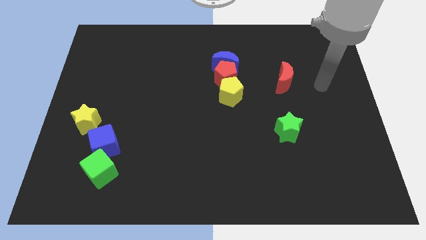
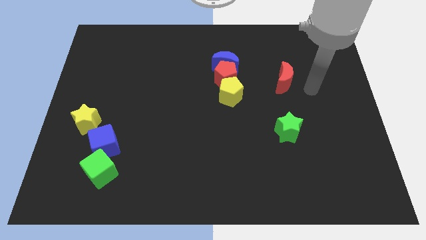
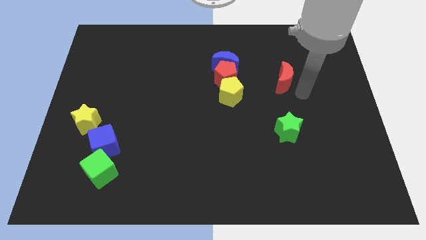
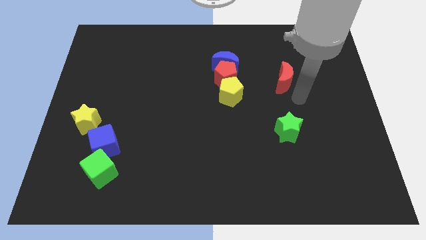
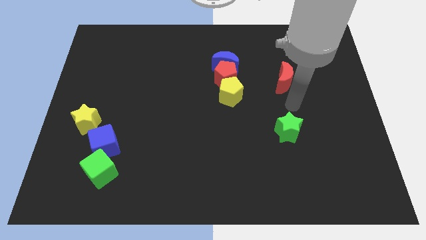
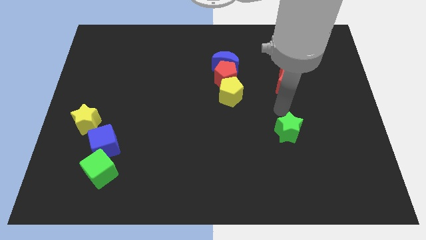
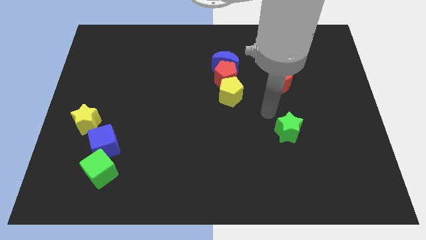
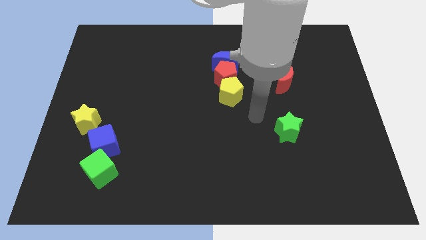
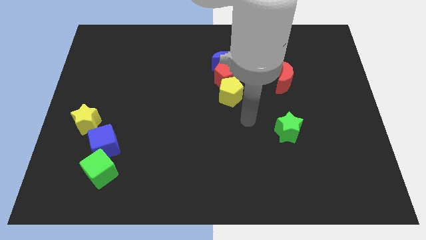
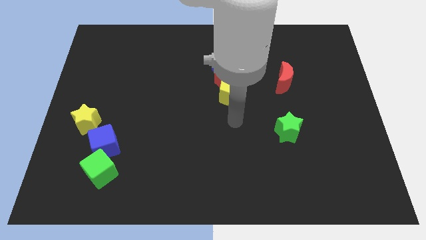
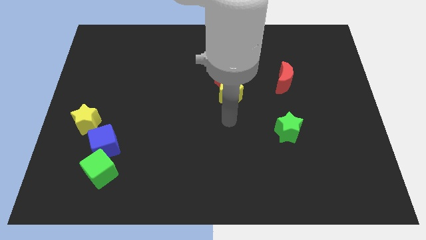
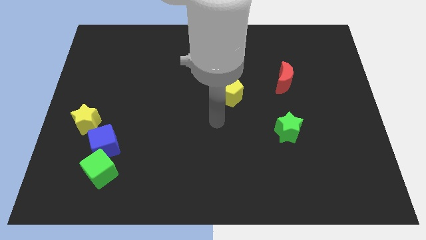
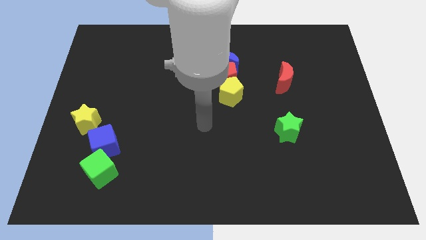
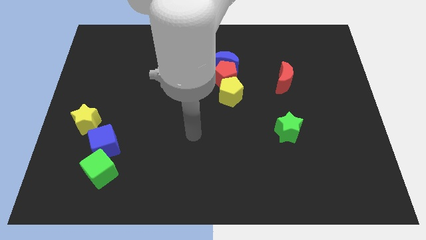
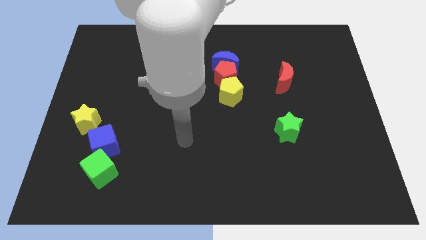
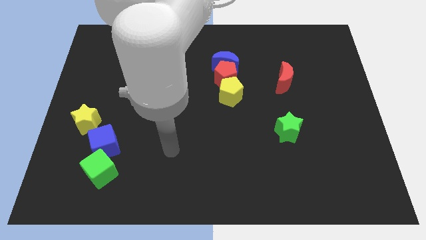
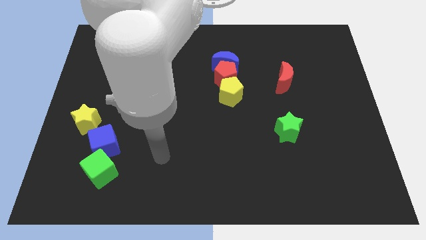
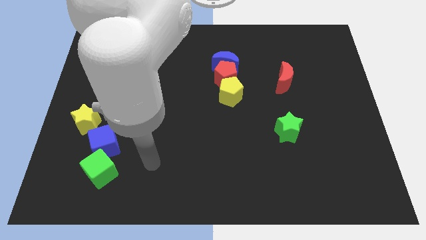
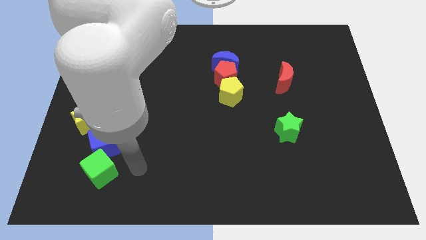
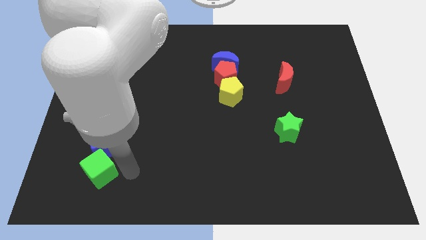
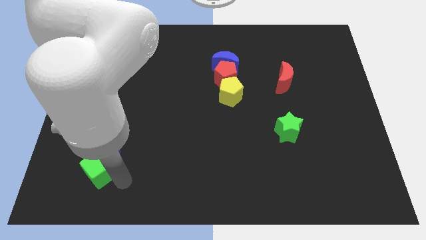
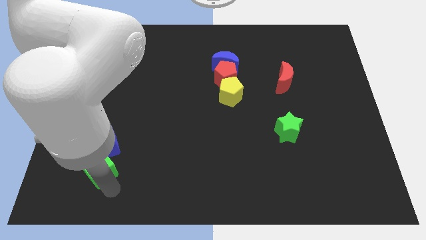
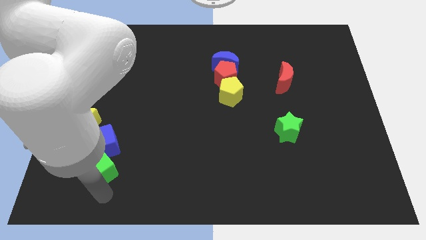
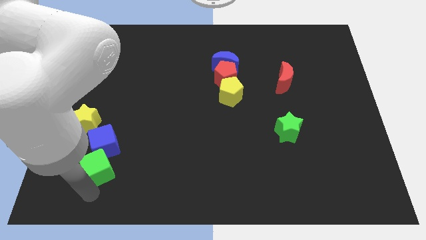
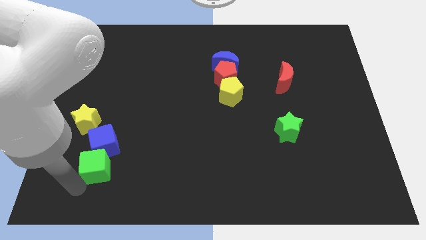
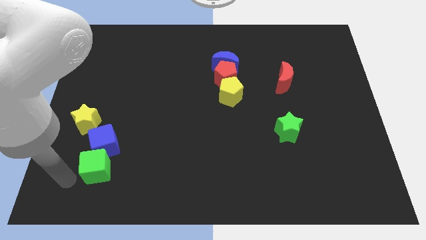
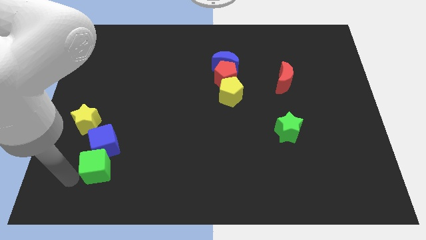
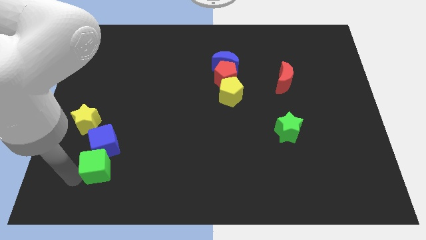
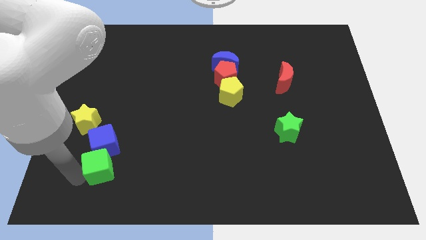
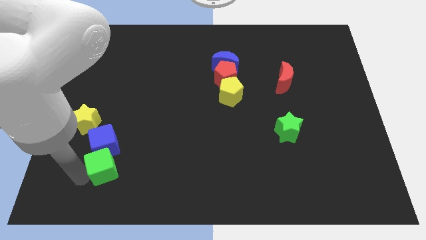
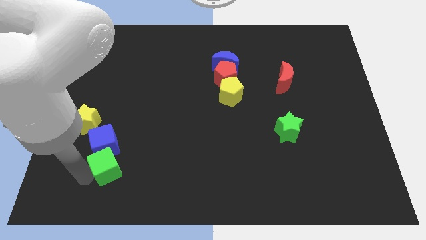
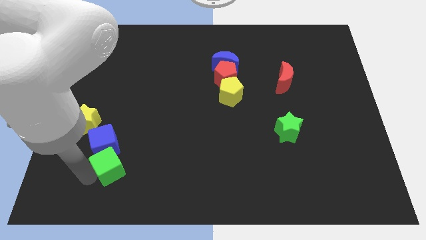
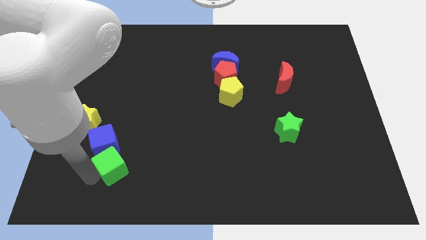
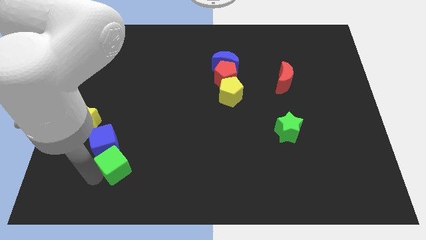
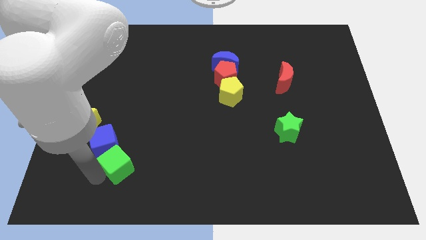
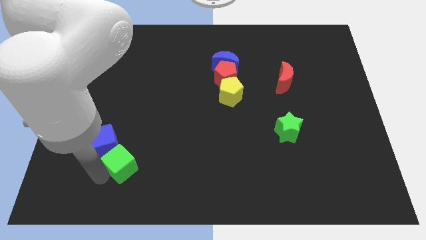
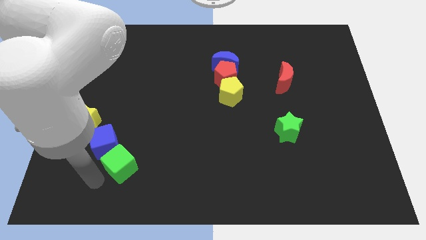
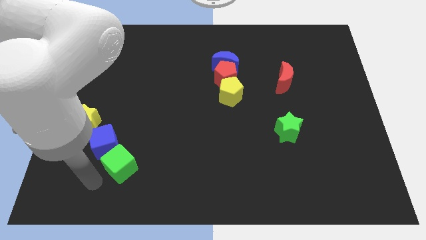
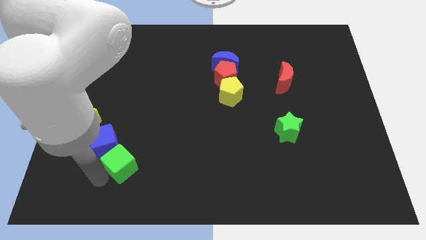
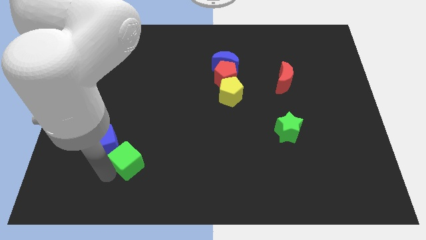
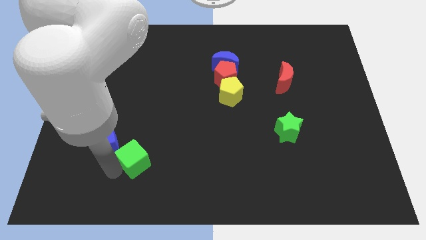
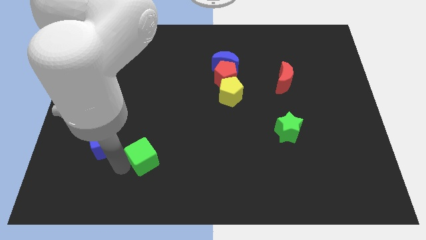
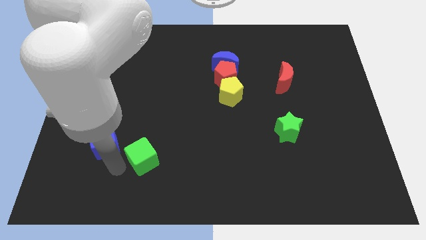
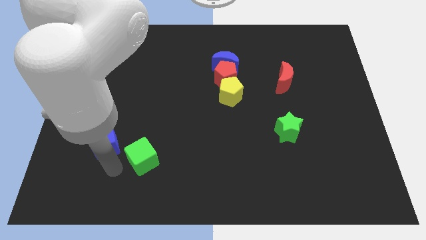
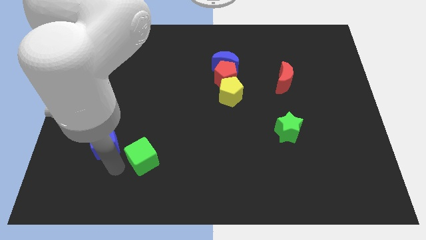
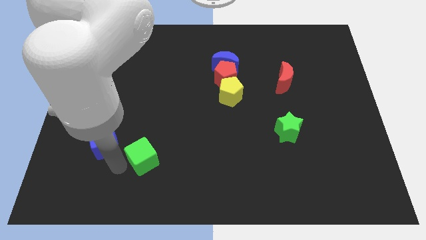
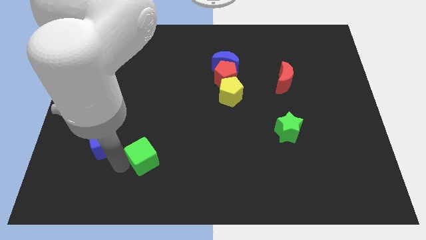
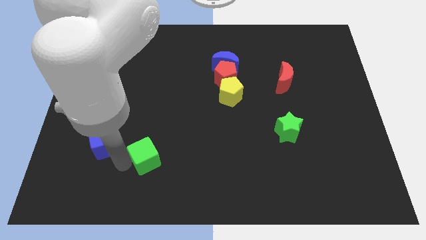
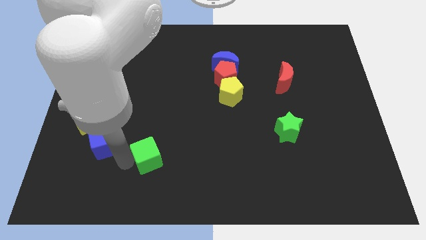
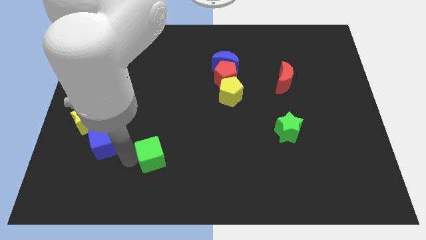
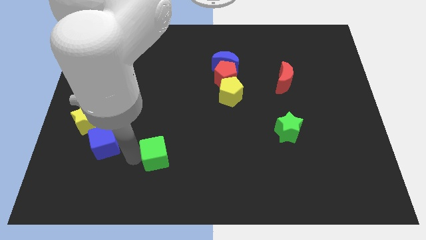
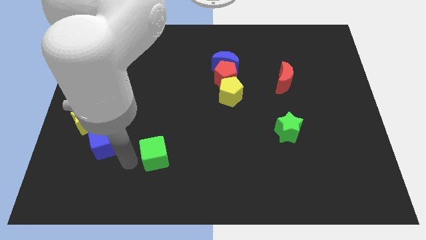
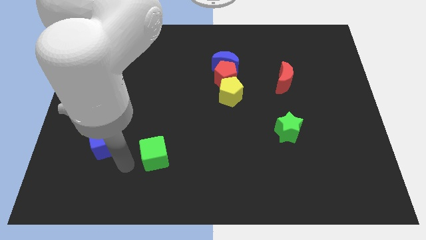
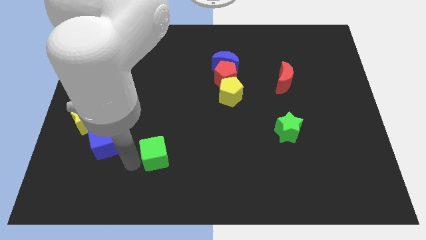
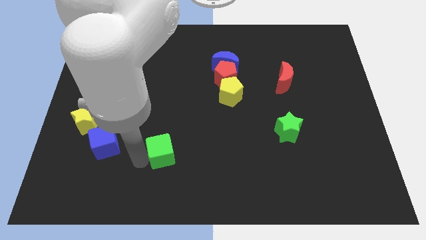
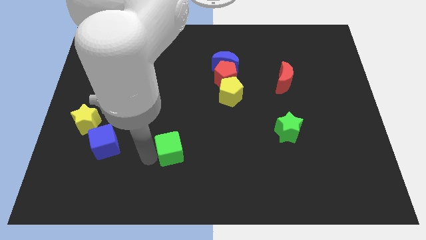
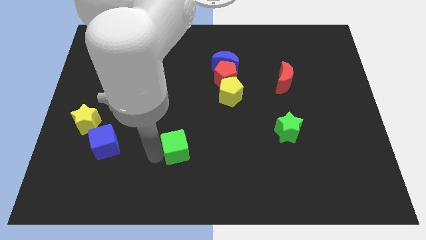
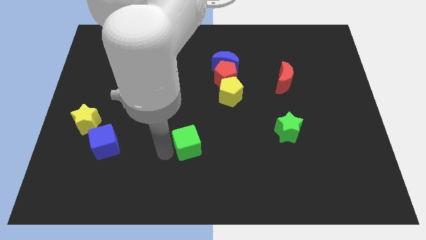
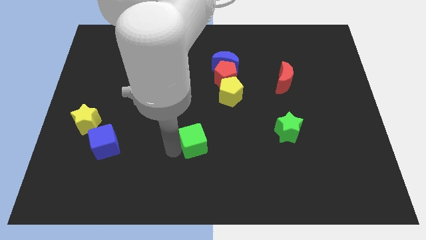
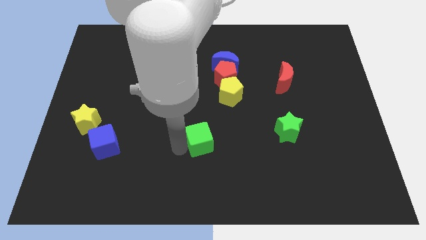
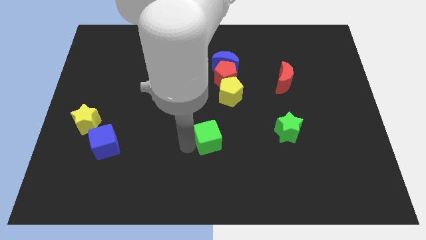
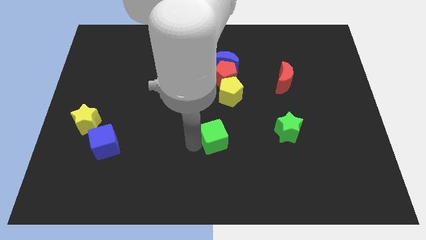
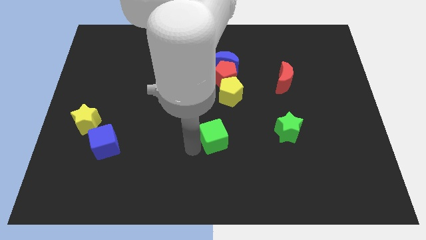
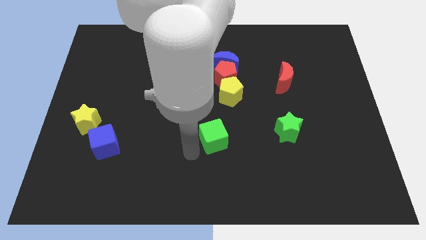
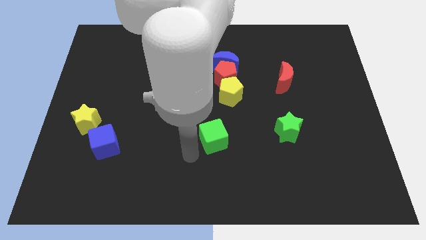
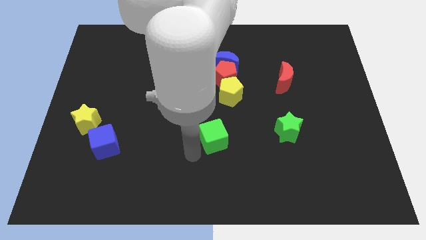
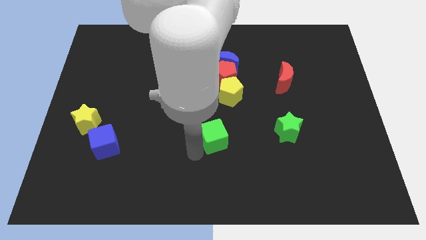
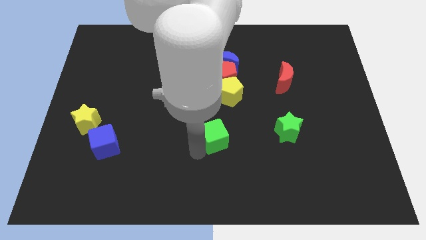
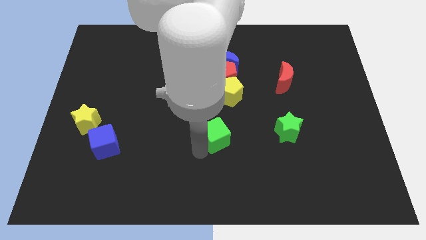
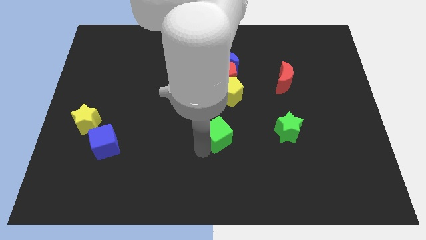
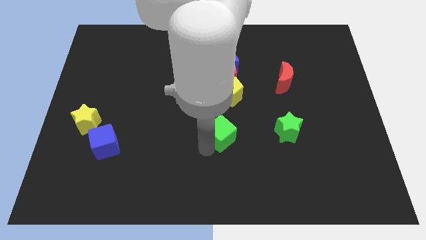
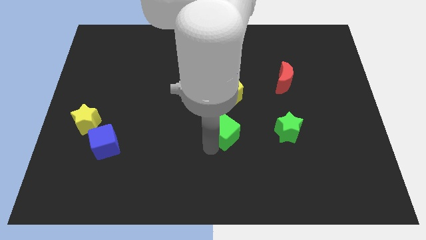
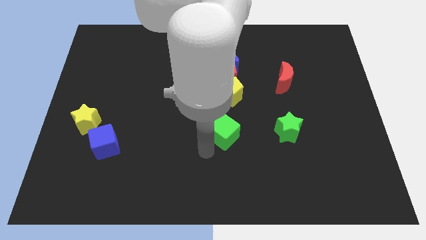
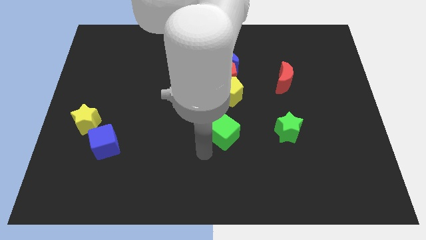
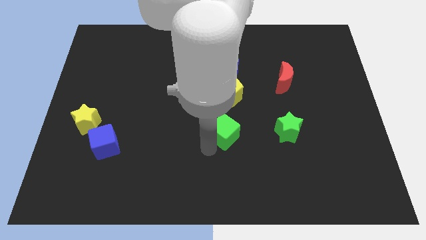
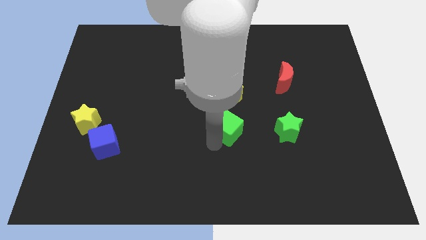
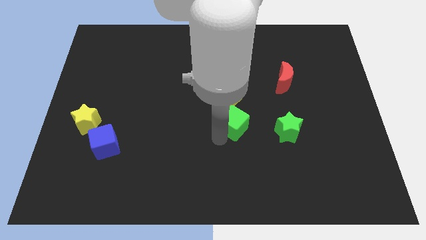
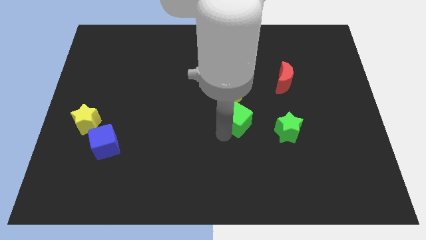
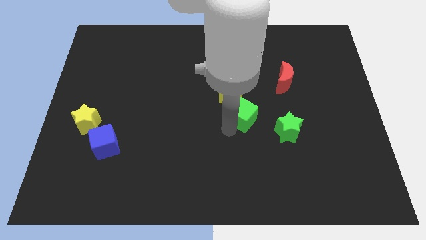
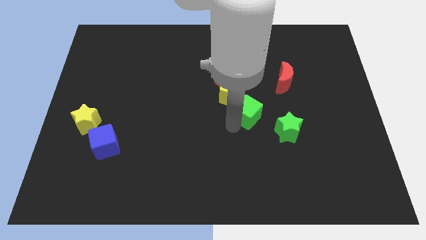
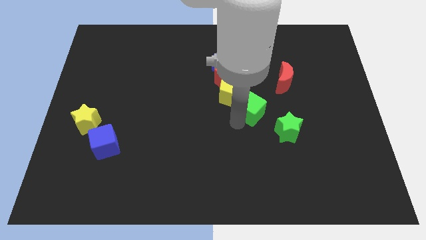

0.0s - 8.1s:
push the green cube to the right side of the yellow pentagon
